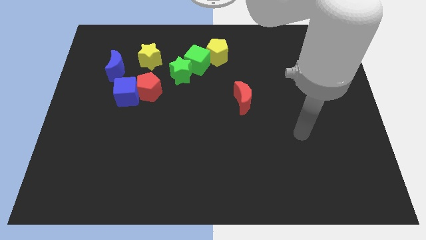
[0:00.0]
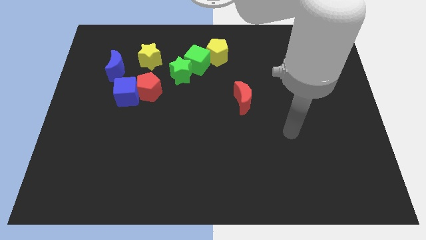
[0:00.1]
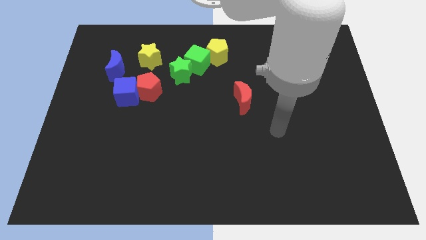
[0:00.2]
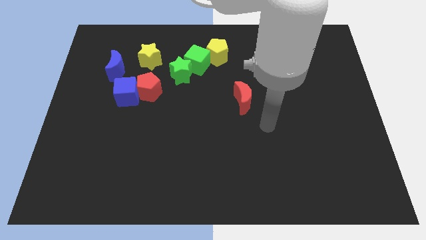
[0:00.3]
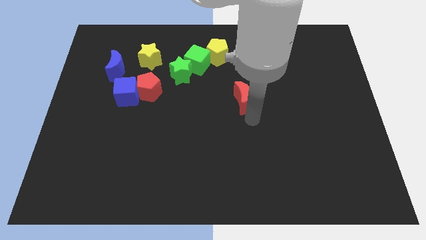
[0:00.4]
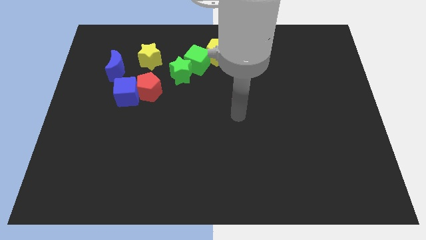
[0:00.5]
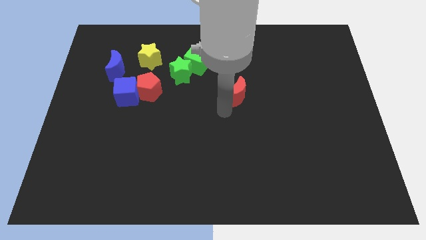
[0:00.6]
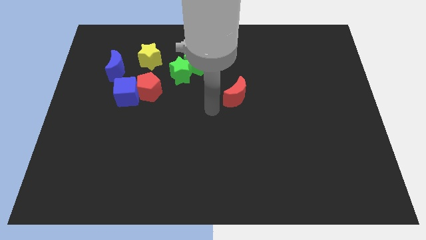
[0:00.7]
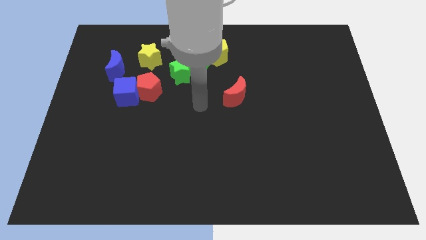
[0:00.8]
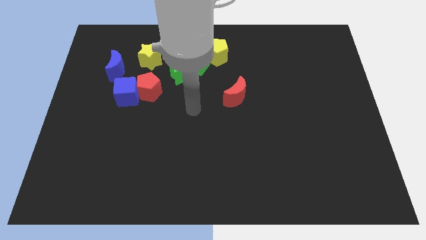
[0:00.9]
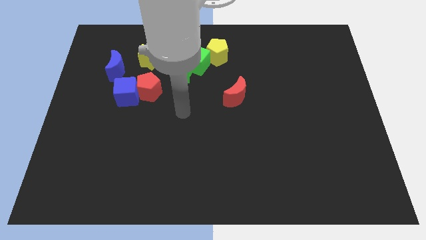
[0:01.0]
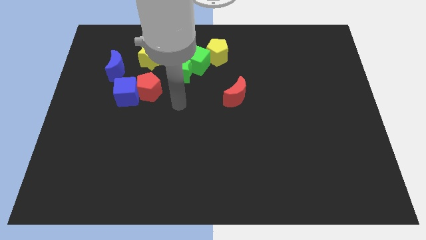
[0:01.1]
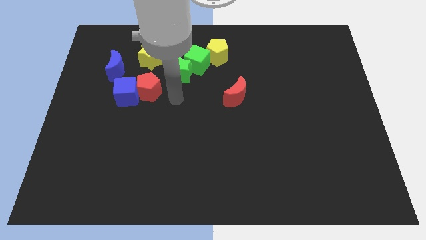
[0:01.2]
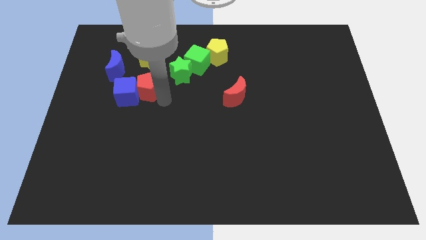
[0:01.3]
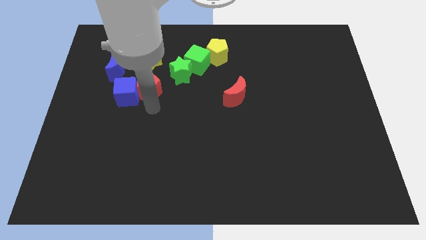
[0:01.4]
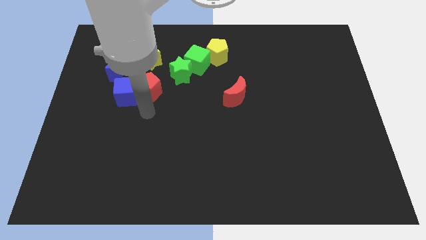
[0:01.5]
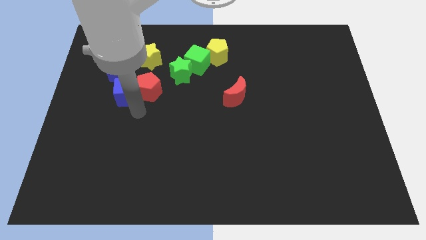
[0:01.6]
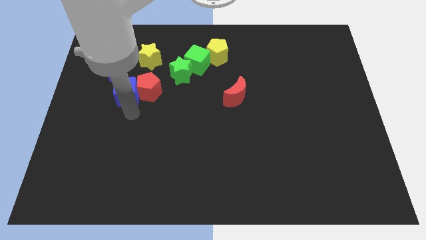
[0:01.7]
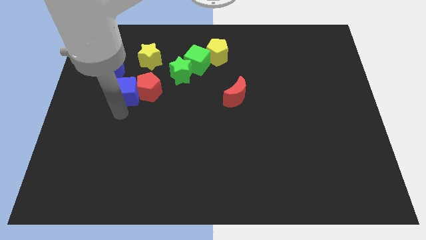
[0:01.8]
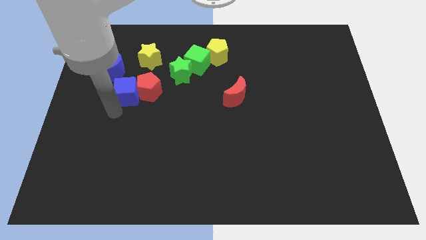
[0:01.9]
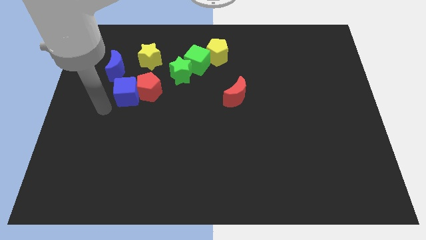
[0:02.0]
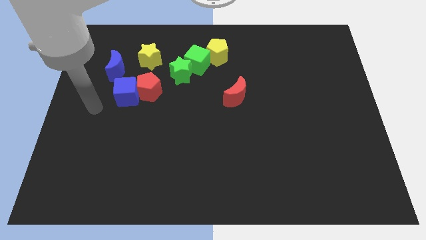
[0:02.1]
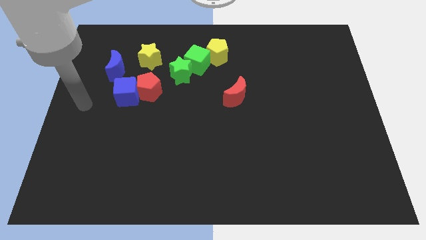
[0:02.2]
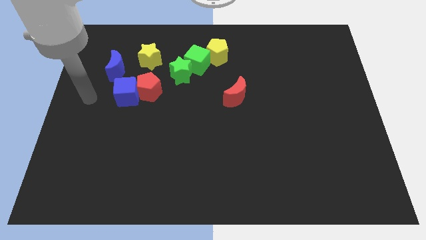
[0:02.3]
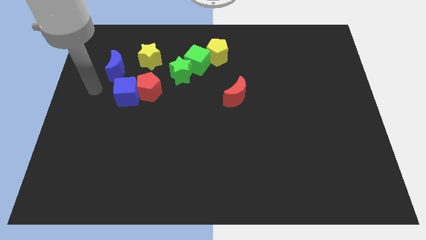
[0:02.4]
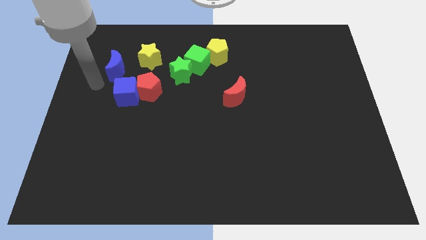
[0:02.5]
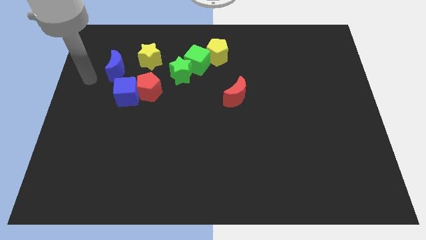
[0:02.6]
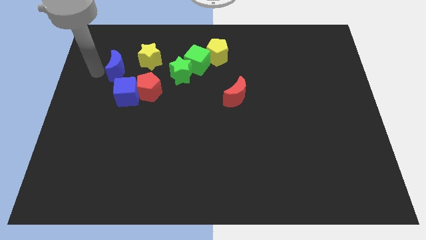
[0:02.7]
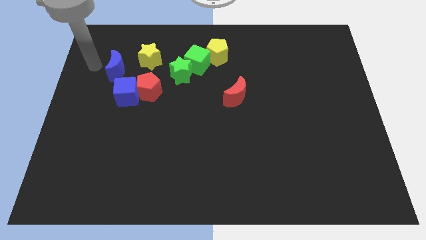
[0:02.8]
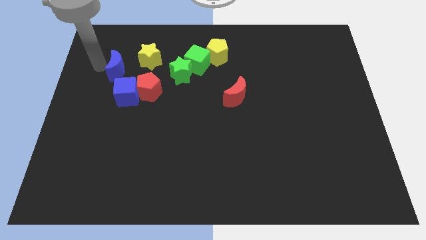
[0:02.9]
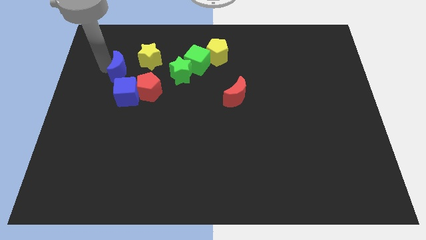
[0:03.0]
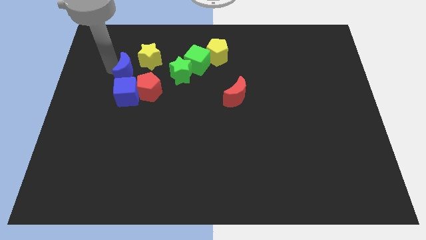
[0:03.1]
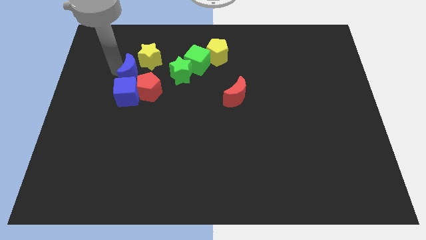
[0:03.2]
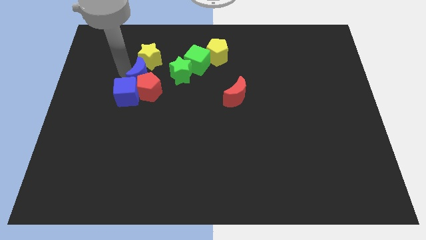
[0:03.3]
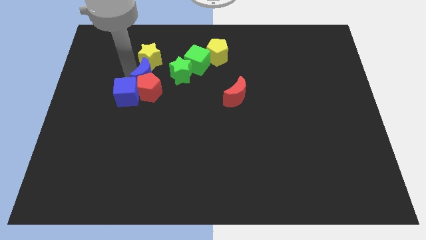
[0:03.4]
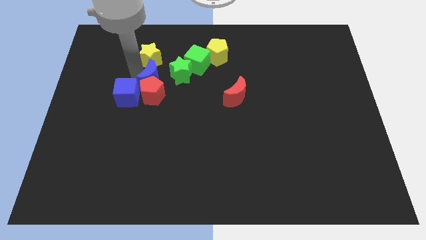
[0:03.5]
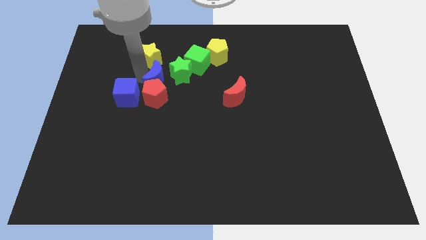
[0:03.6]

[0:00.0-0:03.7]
put the blue moon to the right of the blue cube

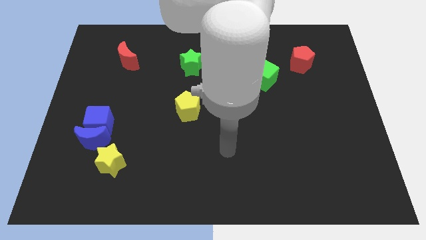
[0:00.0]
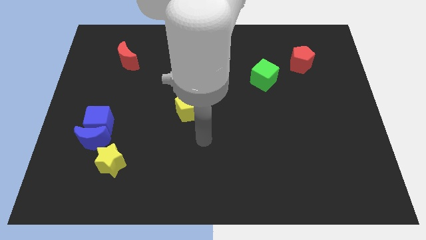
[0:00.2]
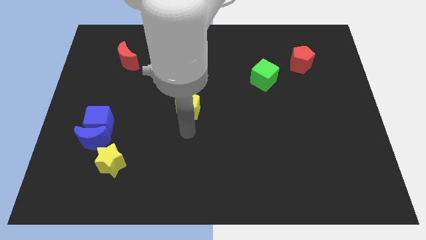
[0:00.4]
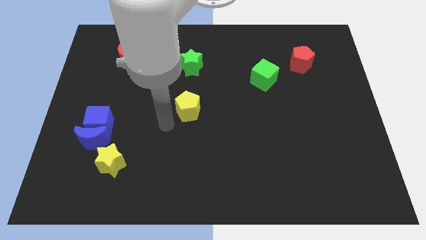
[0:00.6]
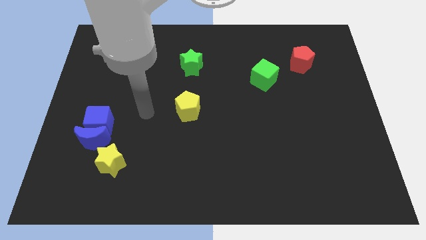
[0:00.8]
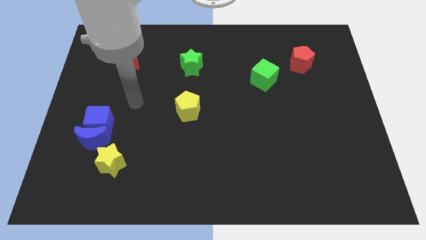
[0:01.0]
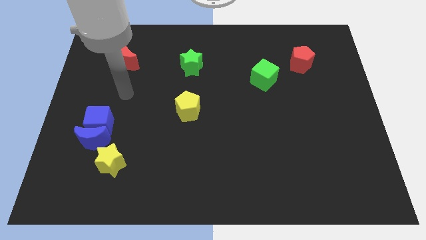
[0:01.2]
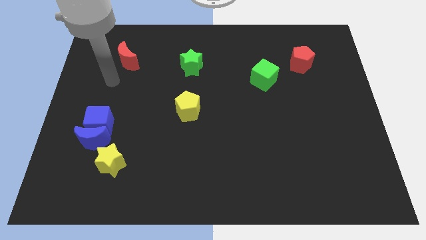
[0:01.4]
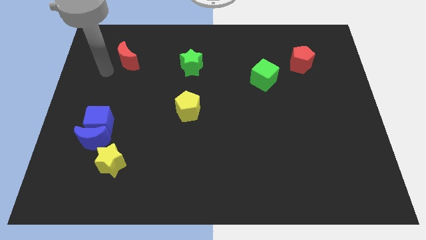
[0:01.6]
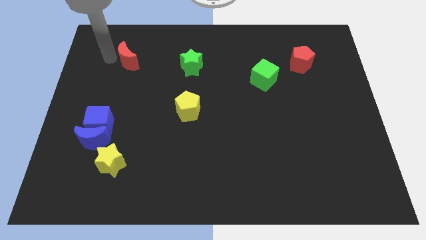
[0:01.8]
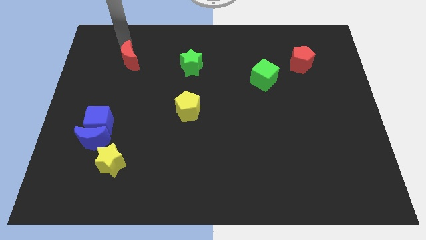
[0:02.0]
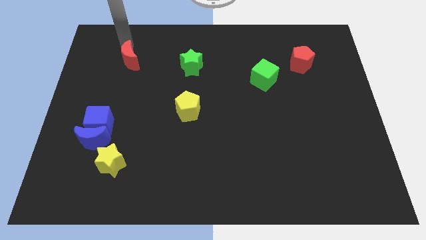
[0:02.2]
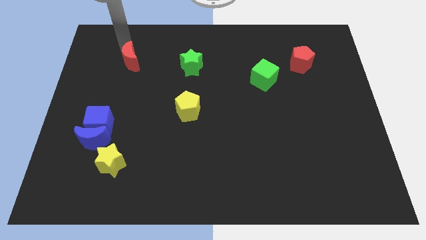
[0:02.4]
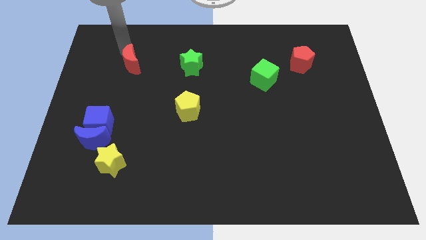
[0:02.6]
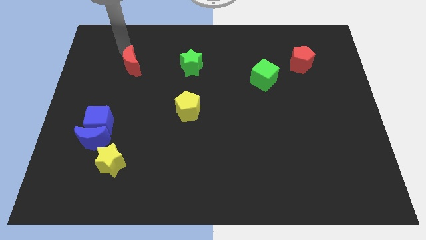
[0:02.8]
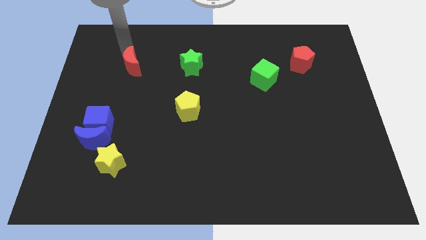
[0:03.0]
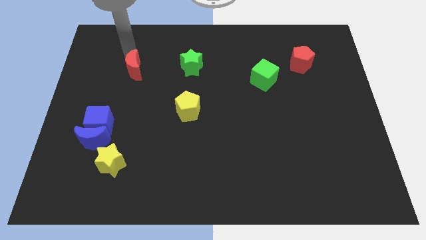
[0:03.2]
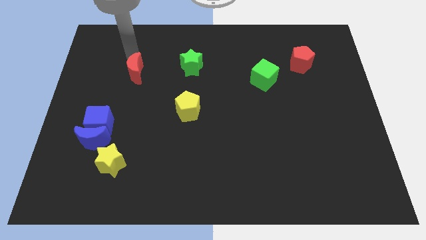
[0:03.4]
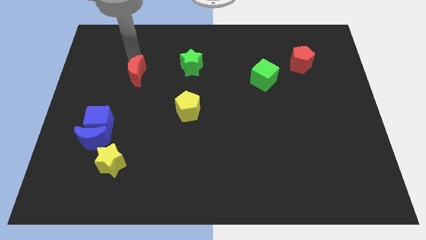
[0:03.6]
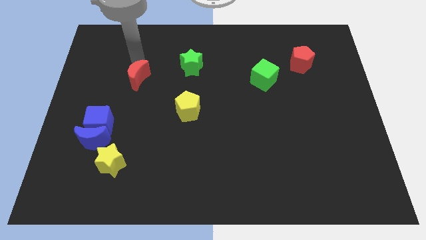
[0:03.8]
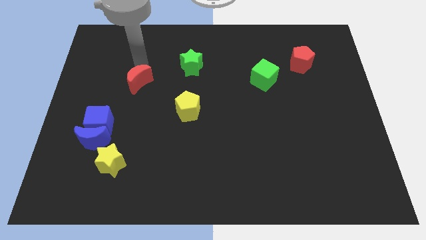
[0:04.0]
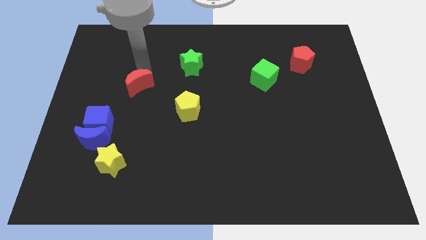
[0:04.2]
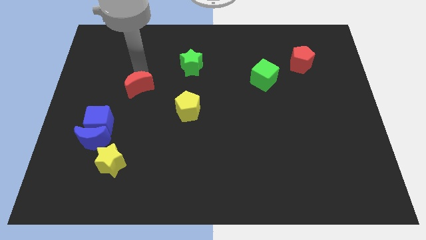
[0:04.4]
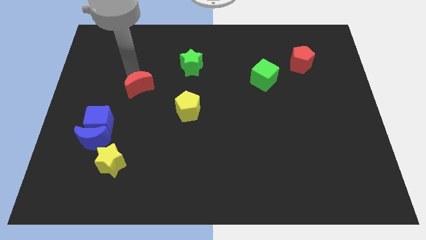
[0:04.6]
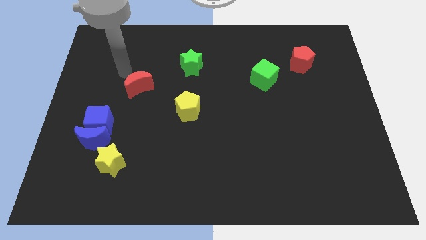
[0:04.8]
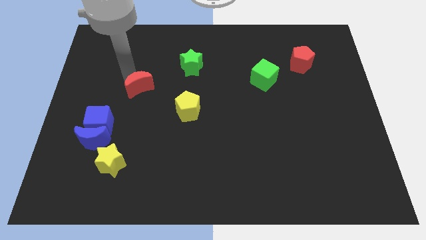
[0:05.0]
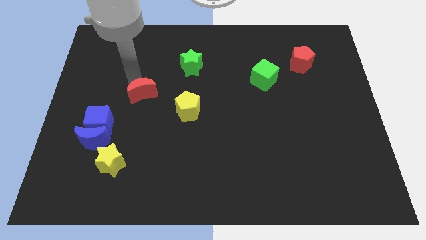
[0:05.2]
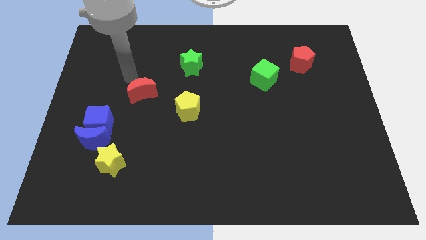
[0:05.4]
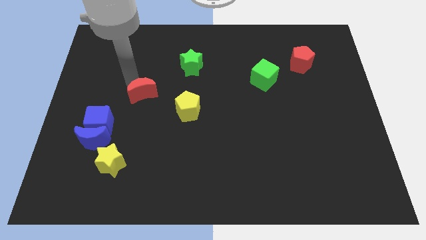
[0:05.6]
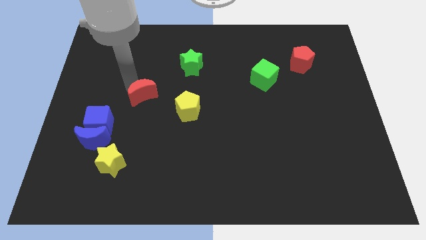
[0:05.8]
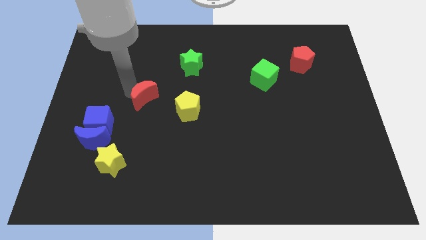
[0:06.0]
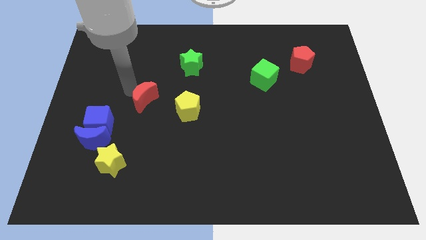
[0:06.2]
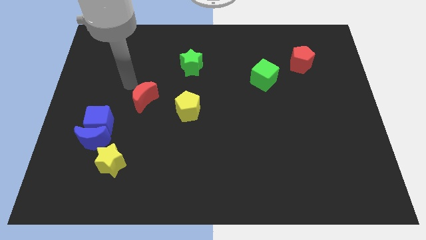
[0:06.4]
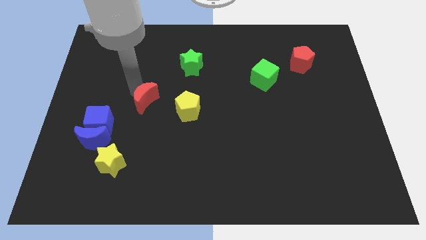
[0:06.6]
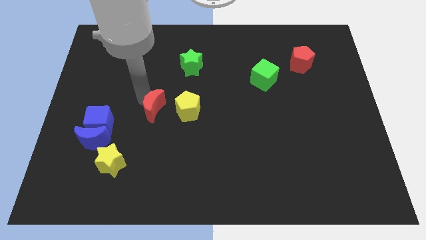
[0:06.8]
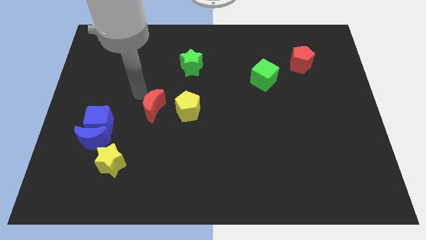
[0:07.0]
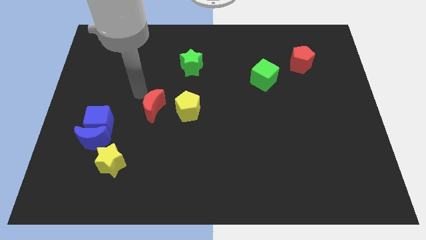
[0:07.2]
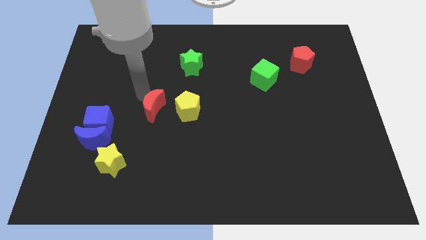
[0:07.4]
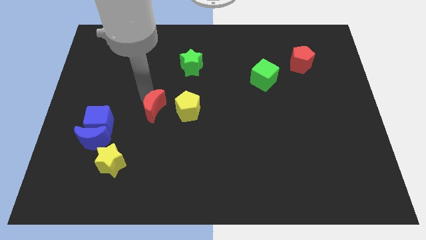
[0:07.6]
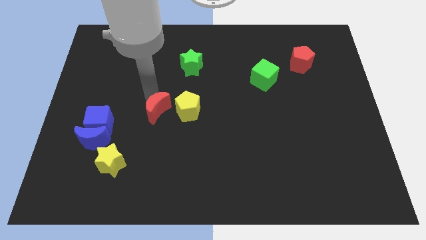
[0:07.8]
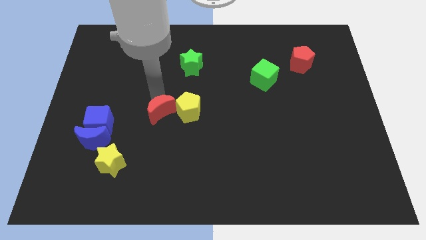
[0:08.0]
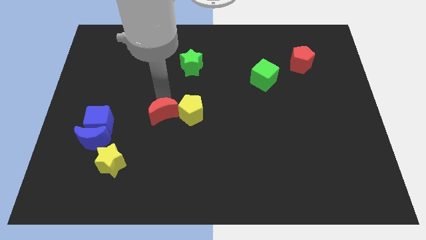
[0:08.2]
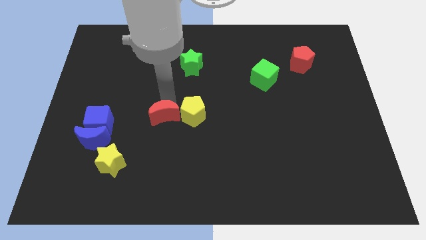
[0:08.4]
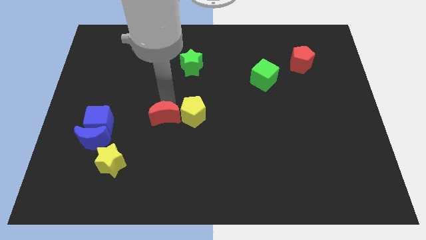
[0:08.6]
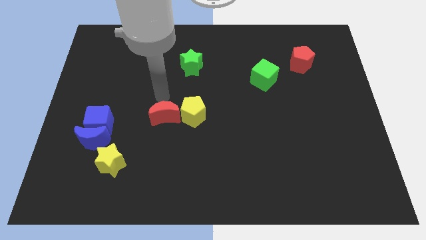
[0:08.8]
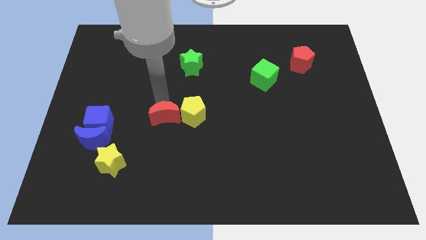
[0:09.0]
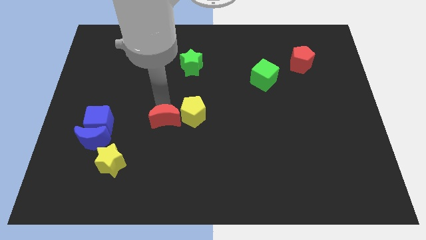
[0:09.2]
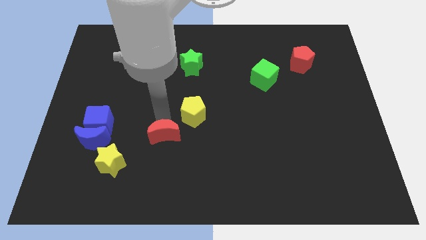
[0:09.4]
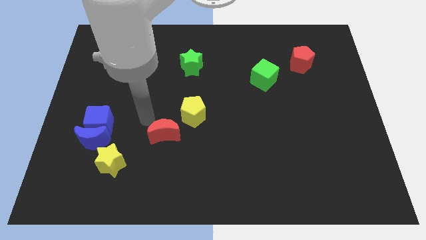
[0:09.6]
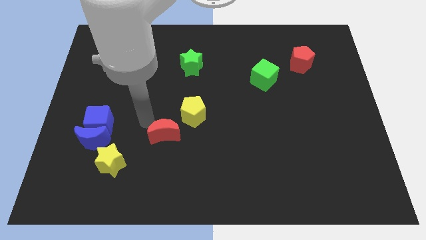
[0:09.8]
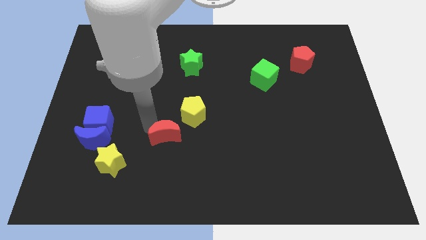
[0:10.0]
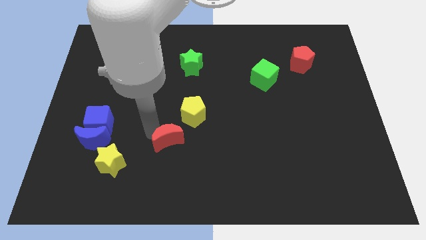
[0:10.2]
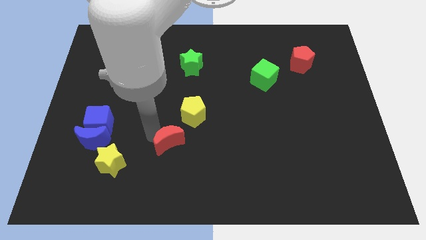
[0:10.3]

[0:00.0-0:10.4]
put the red moon below the yellow pentagon
